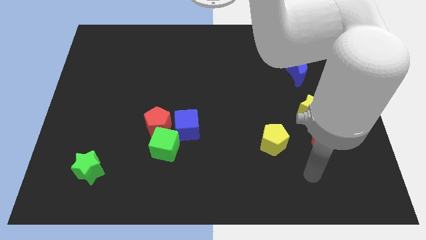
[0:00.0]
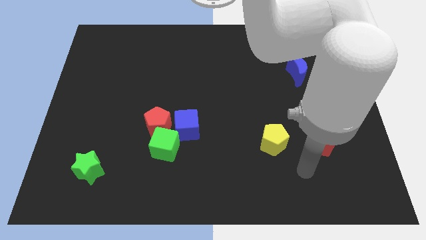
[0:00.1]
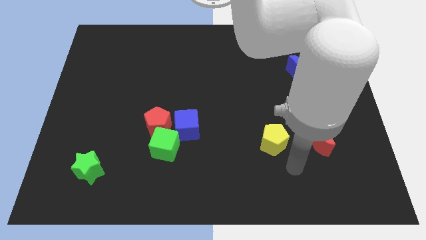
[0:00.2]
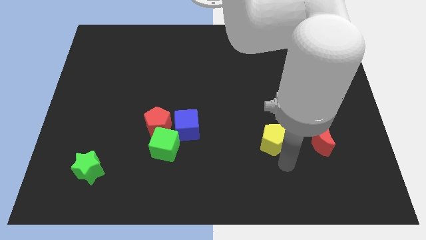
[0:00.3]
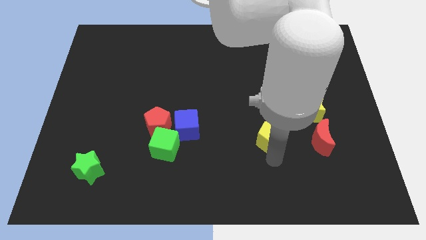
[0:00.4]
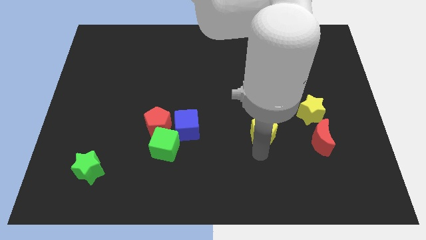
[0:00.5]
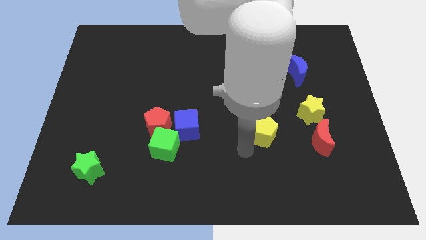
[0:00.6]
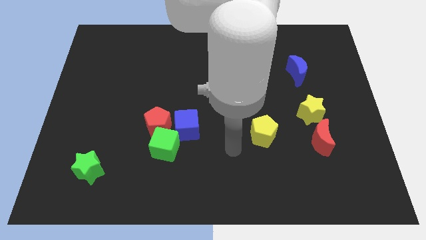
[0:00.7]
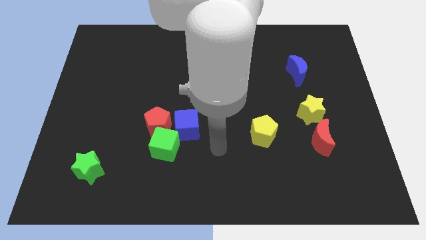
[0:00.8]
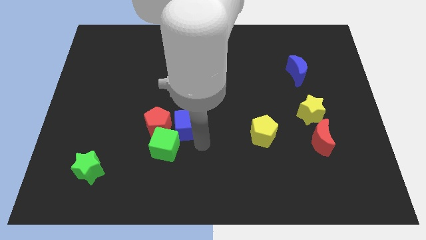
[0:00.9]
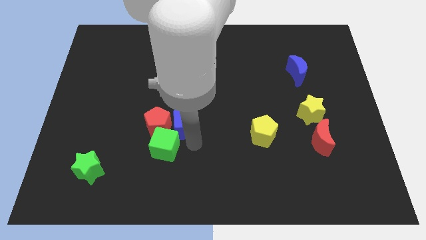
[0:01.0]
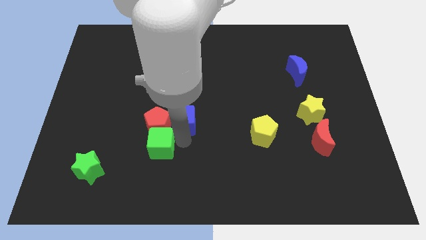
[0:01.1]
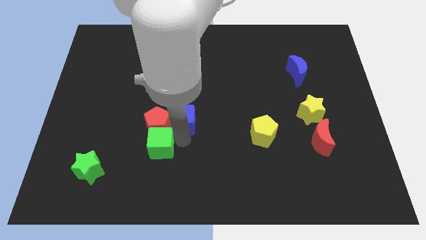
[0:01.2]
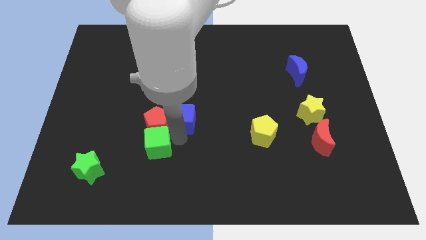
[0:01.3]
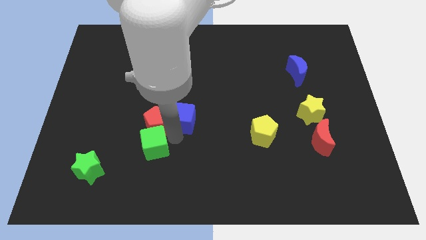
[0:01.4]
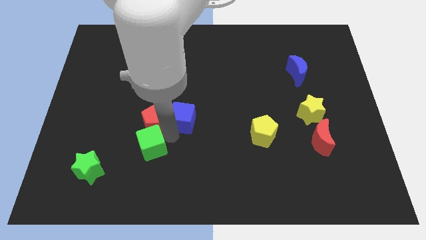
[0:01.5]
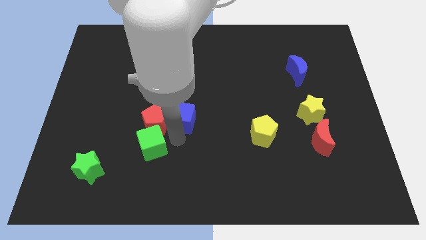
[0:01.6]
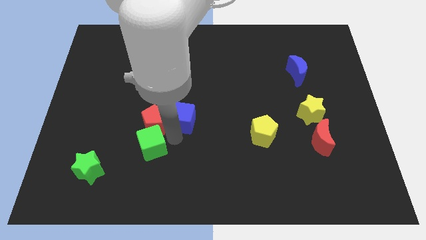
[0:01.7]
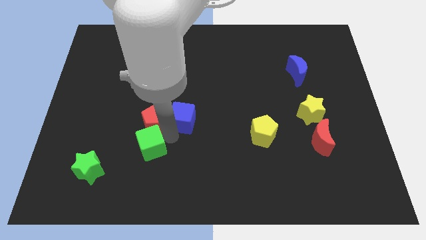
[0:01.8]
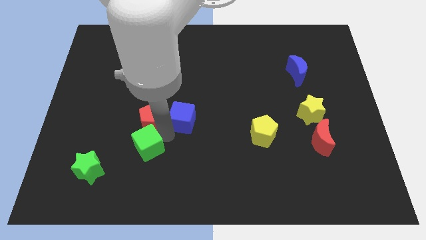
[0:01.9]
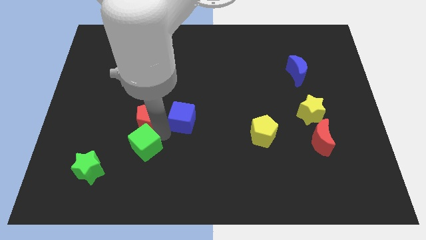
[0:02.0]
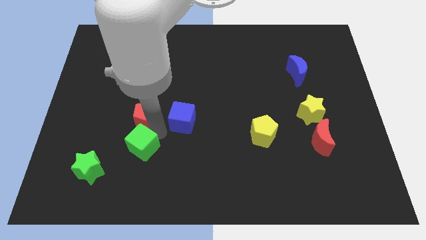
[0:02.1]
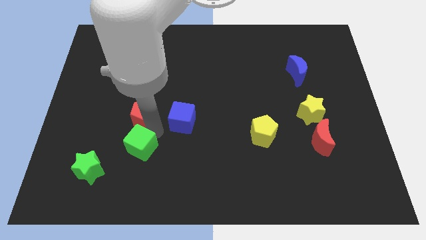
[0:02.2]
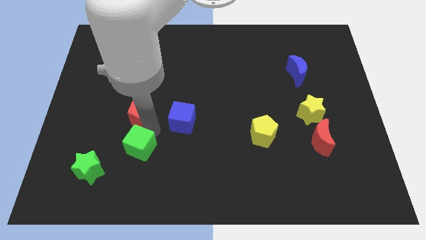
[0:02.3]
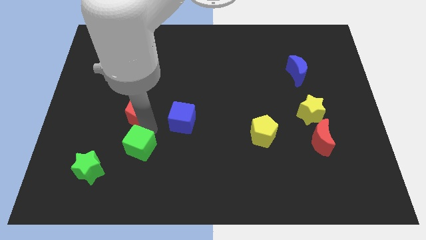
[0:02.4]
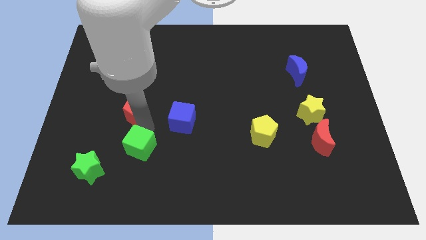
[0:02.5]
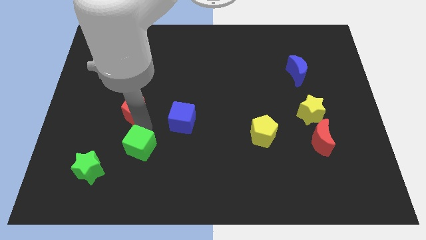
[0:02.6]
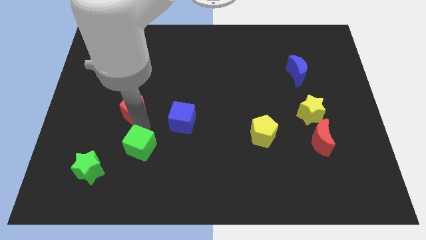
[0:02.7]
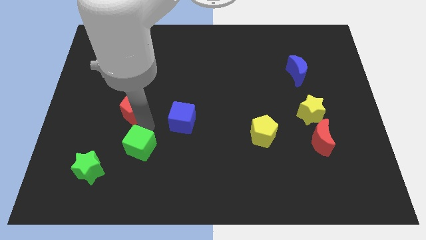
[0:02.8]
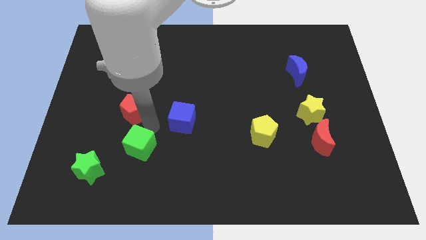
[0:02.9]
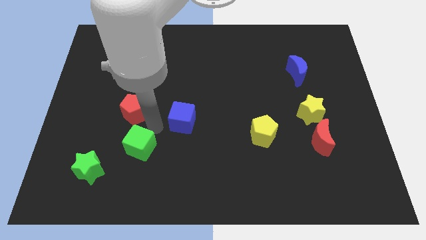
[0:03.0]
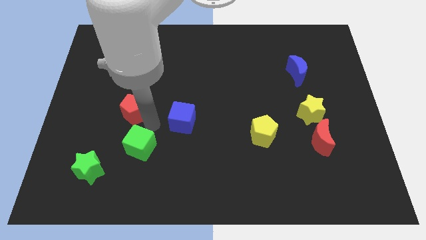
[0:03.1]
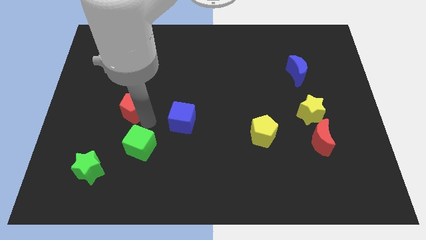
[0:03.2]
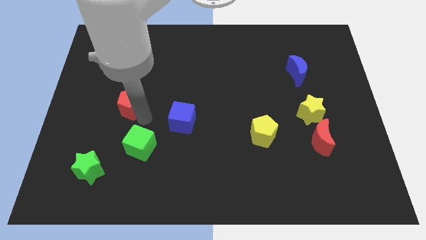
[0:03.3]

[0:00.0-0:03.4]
separate the red pentagon from the green cube and blue cube

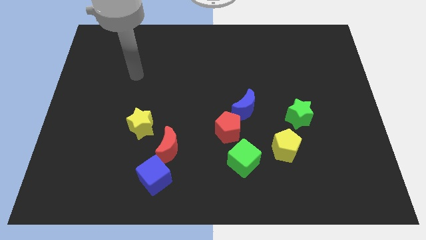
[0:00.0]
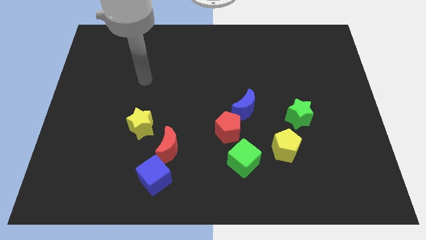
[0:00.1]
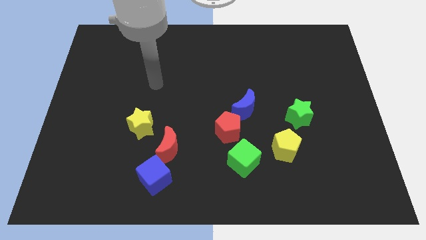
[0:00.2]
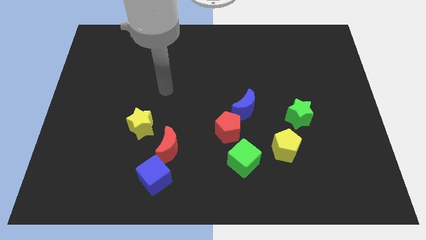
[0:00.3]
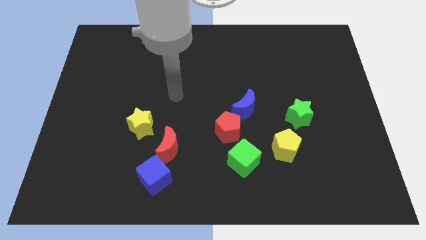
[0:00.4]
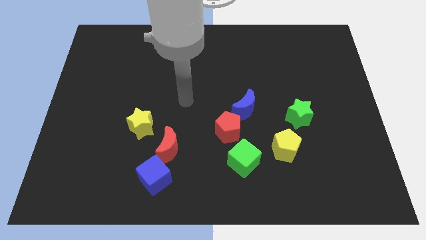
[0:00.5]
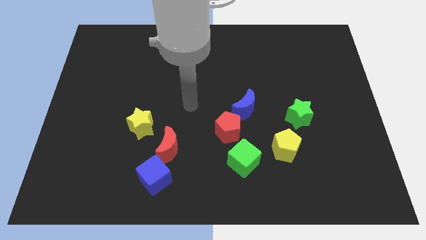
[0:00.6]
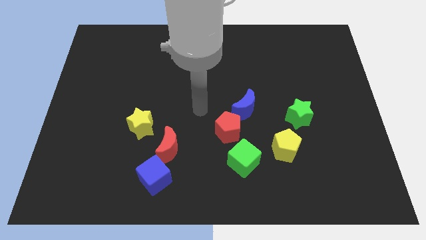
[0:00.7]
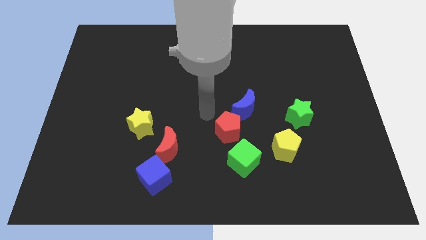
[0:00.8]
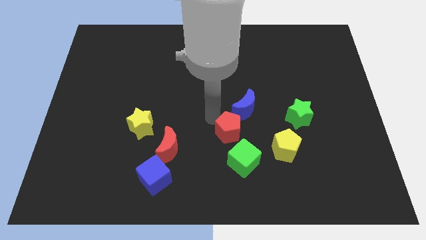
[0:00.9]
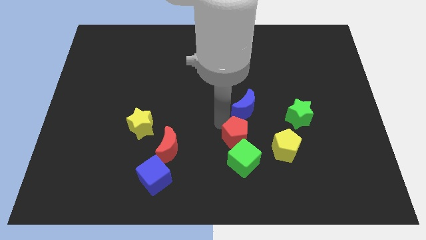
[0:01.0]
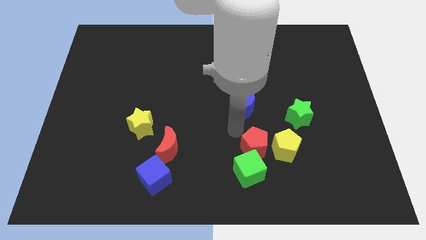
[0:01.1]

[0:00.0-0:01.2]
move the blue moon away from the red pentagon

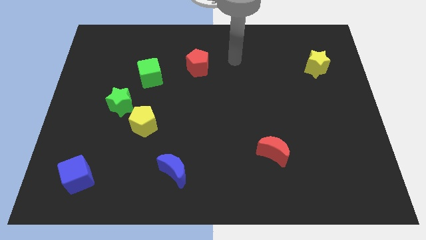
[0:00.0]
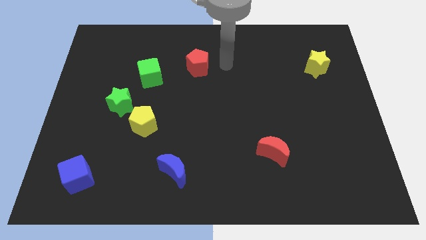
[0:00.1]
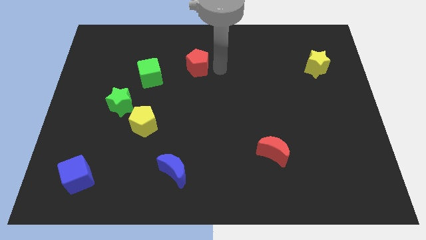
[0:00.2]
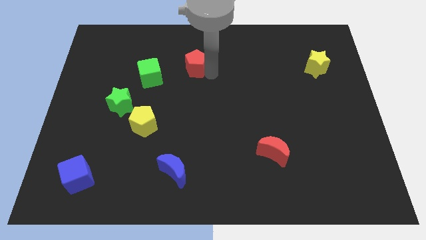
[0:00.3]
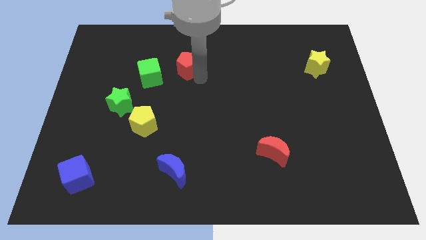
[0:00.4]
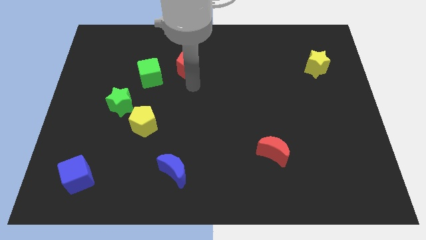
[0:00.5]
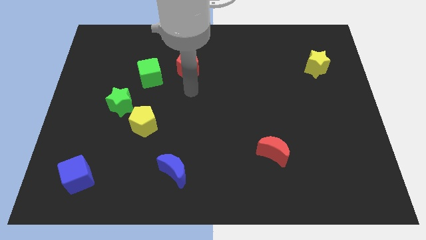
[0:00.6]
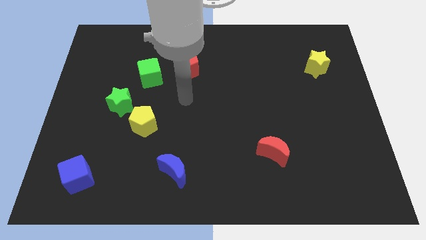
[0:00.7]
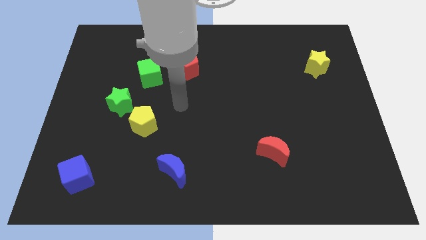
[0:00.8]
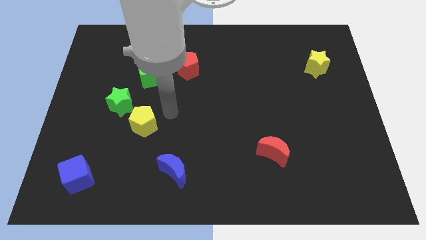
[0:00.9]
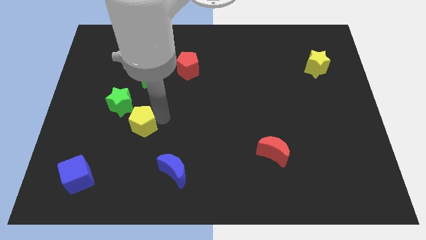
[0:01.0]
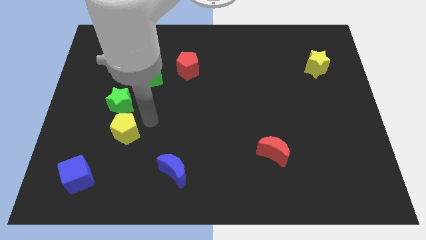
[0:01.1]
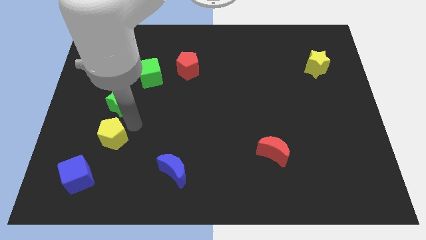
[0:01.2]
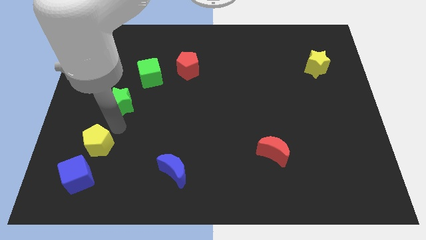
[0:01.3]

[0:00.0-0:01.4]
pull the green star apart from the yellow pentagon

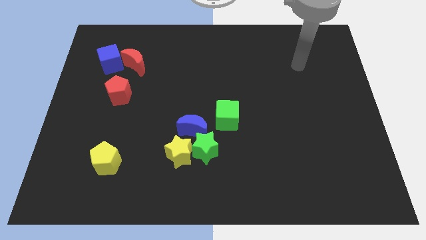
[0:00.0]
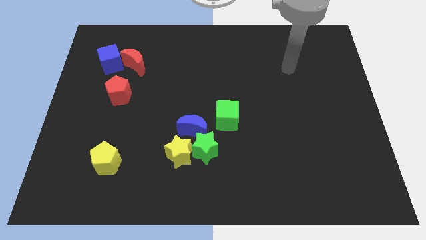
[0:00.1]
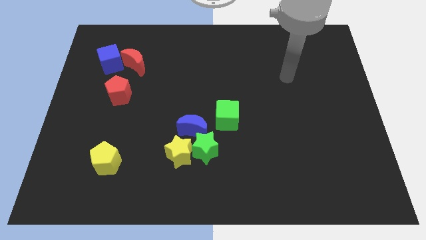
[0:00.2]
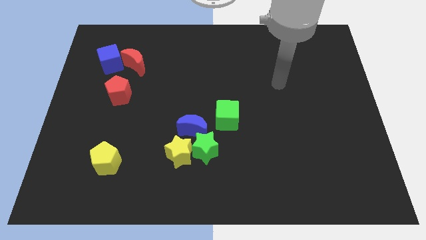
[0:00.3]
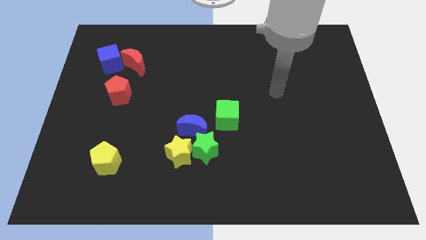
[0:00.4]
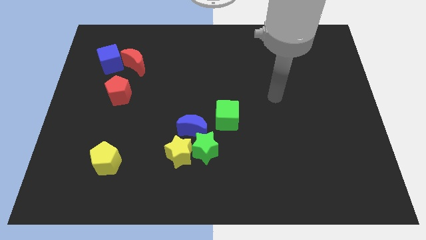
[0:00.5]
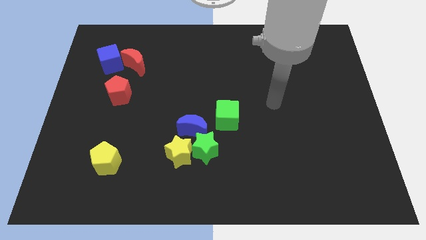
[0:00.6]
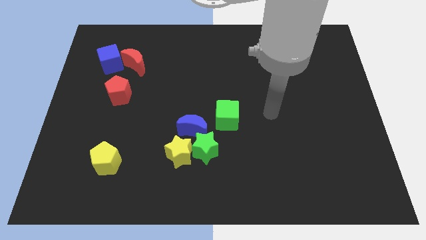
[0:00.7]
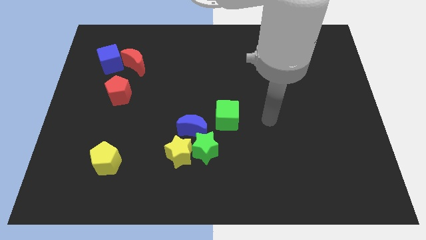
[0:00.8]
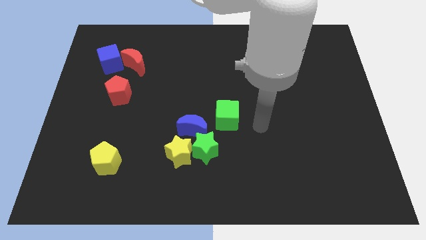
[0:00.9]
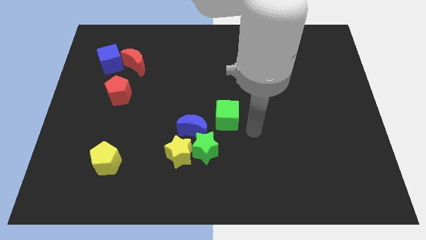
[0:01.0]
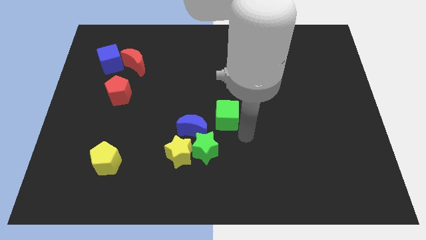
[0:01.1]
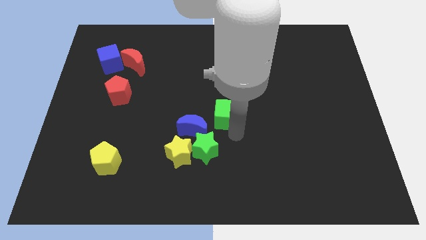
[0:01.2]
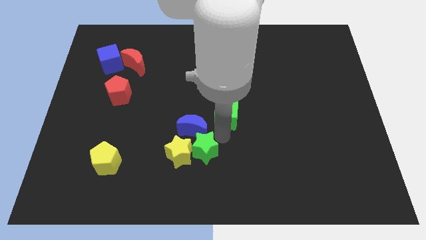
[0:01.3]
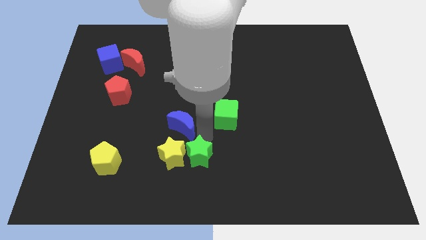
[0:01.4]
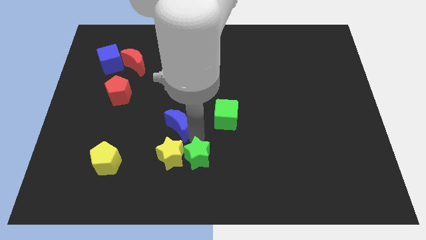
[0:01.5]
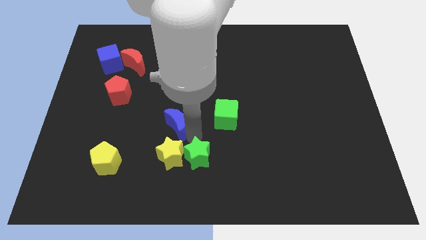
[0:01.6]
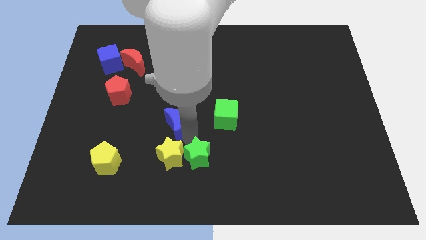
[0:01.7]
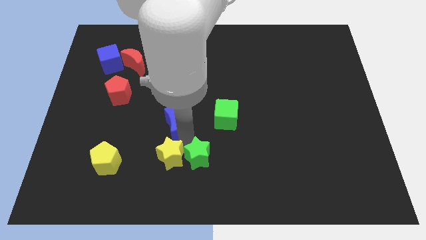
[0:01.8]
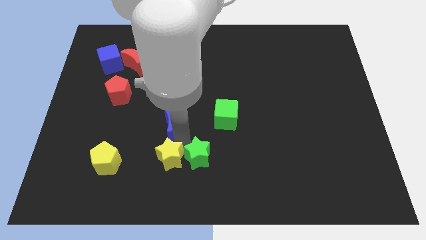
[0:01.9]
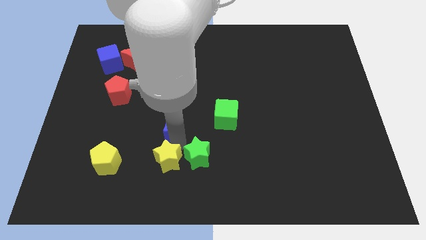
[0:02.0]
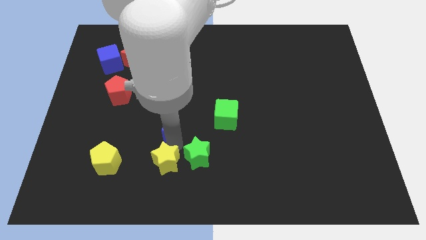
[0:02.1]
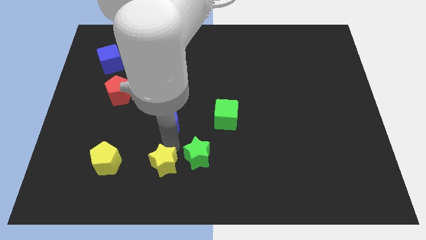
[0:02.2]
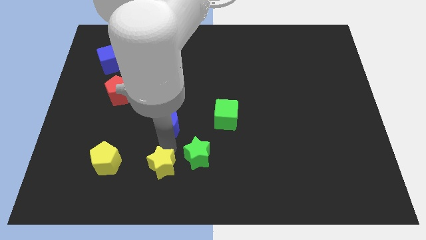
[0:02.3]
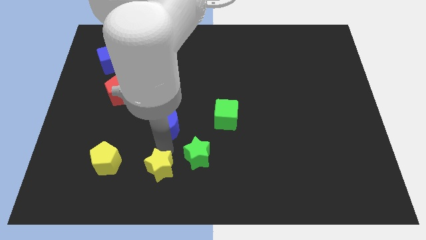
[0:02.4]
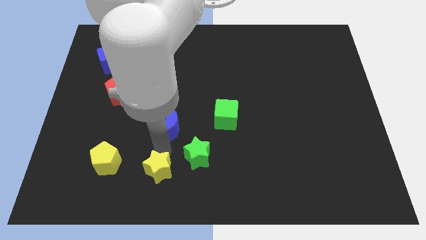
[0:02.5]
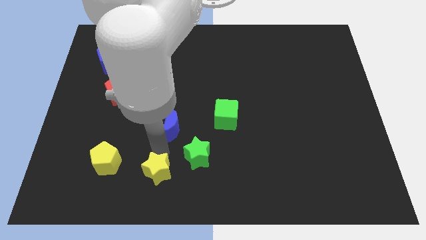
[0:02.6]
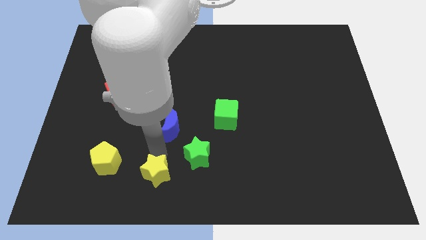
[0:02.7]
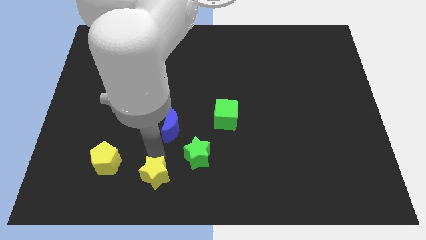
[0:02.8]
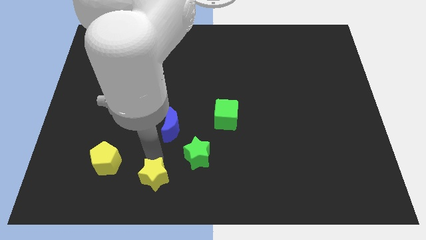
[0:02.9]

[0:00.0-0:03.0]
move the yellow star away from the green star and blue moon

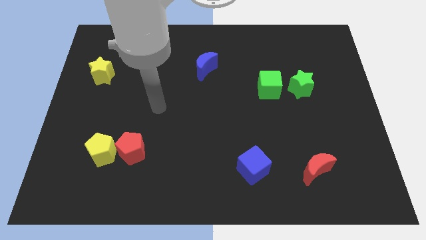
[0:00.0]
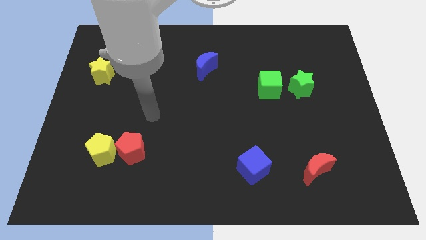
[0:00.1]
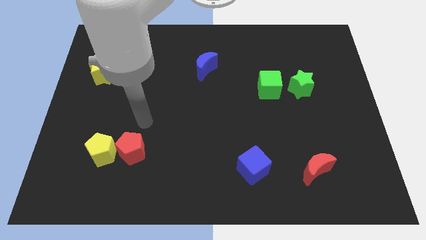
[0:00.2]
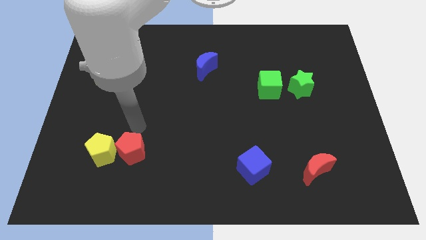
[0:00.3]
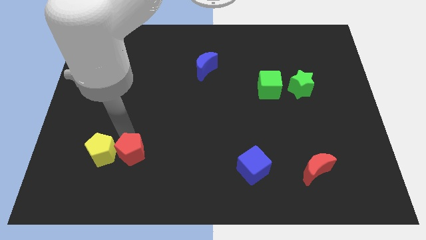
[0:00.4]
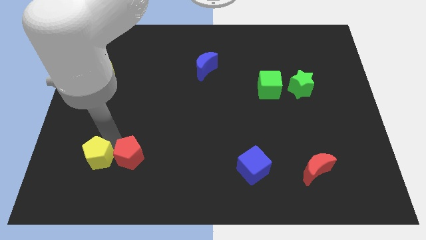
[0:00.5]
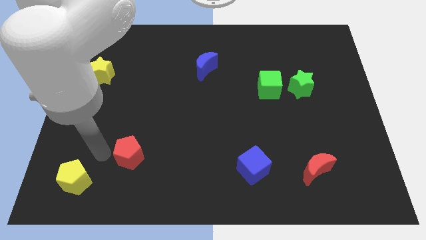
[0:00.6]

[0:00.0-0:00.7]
pull the red pentagon apart from the yellow pentagon
